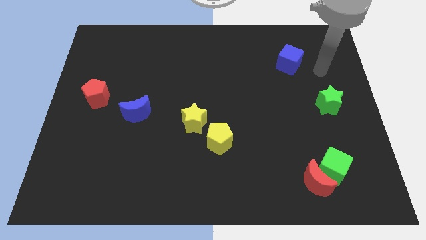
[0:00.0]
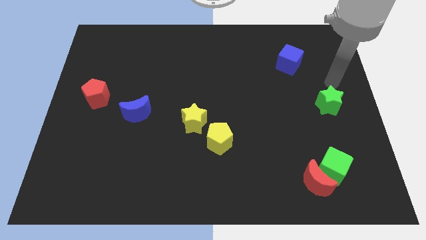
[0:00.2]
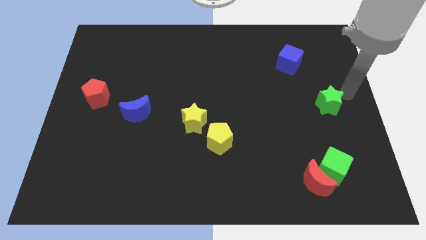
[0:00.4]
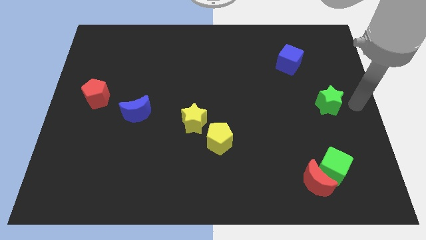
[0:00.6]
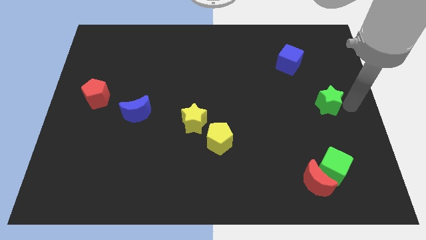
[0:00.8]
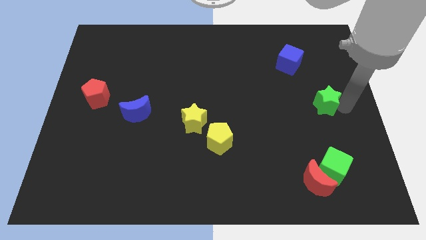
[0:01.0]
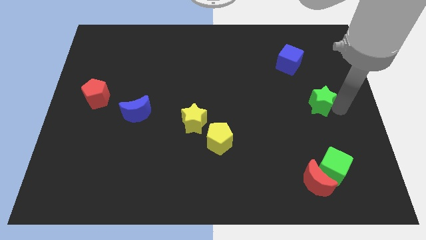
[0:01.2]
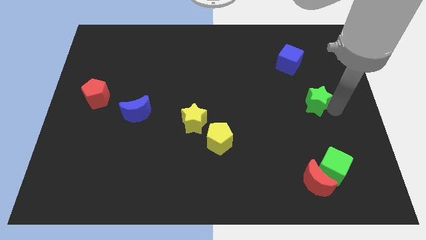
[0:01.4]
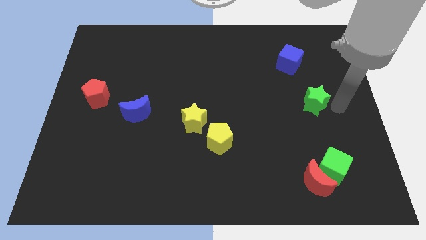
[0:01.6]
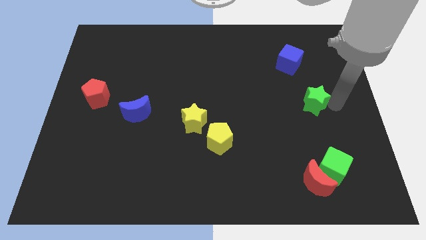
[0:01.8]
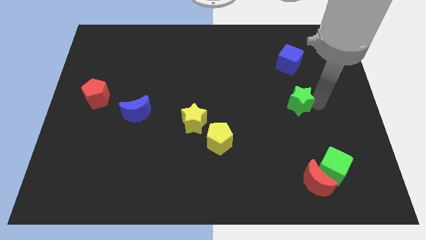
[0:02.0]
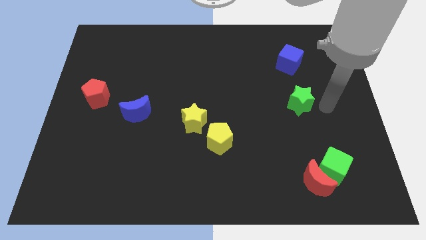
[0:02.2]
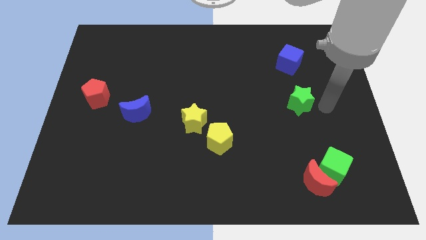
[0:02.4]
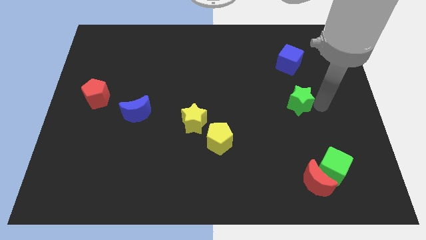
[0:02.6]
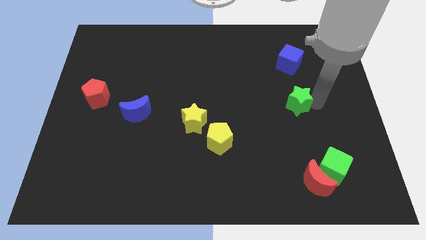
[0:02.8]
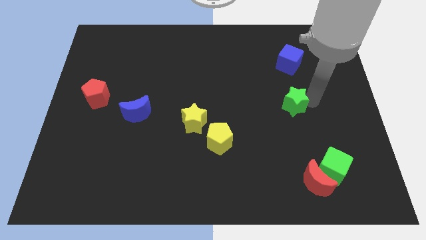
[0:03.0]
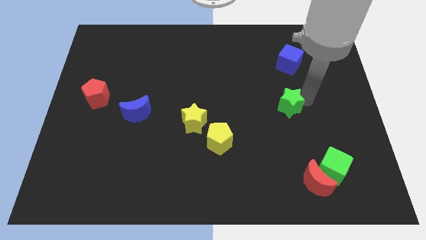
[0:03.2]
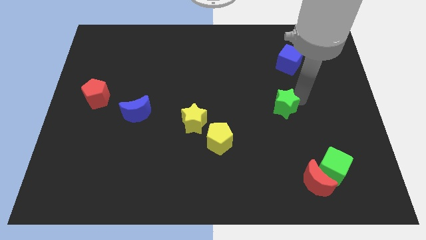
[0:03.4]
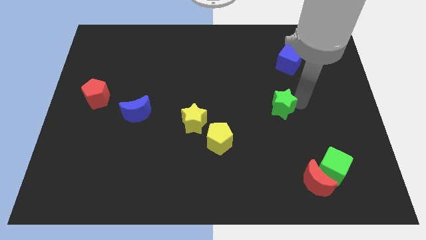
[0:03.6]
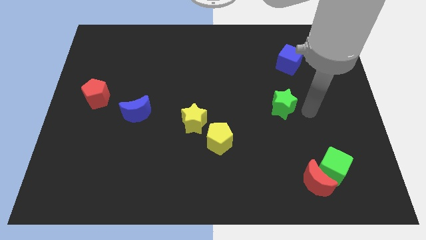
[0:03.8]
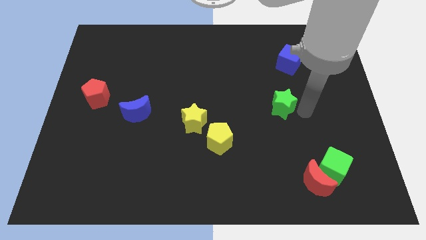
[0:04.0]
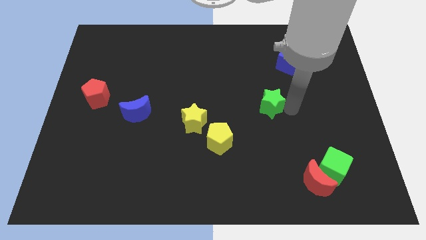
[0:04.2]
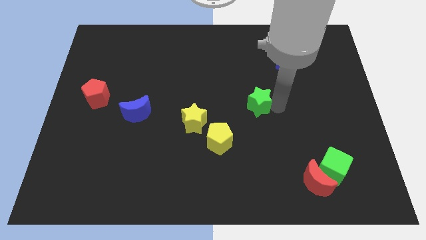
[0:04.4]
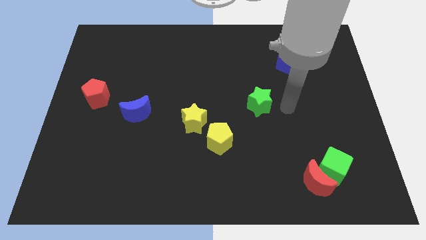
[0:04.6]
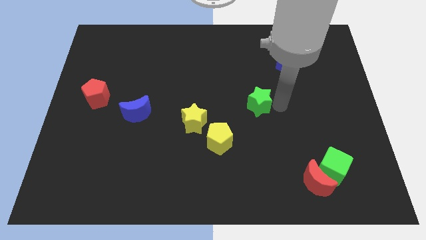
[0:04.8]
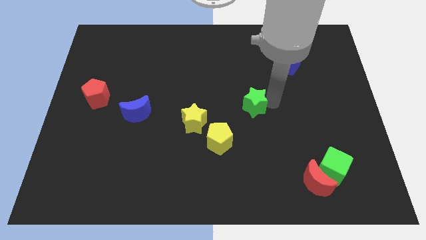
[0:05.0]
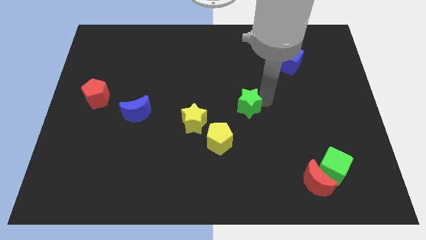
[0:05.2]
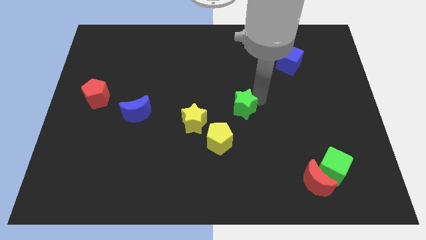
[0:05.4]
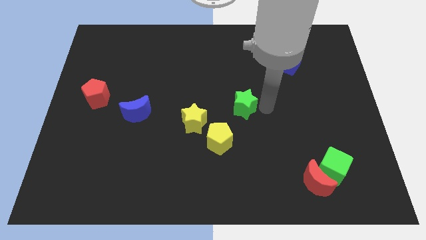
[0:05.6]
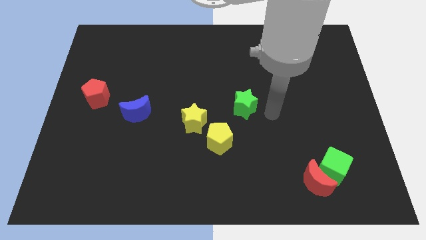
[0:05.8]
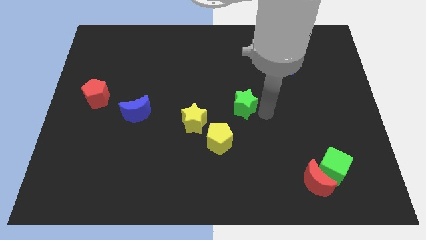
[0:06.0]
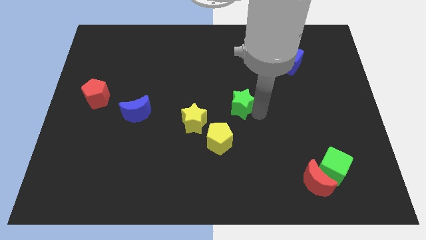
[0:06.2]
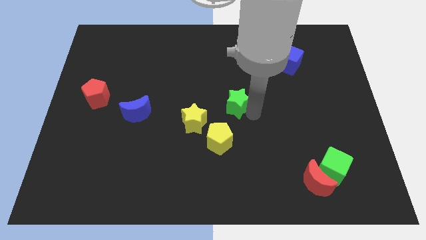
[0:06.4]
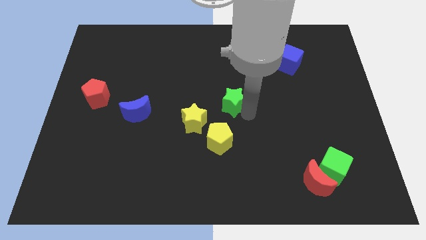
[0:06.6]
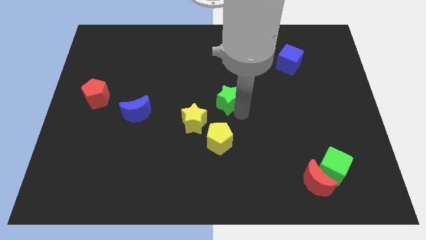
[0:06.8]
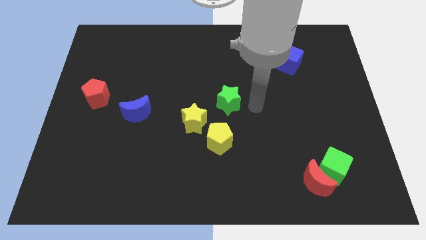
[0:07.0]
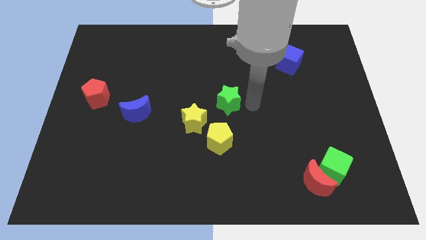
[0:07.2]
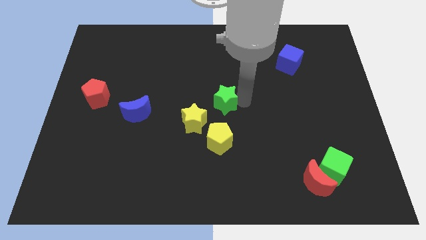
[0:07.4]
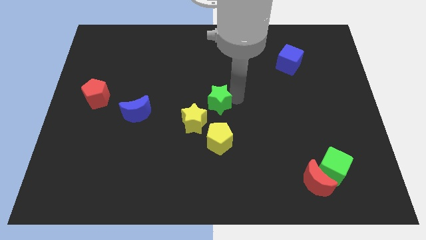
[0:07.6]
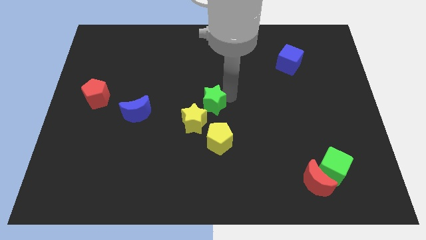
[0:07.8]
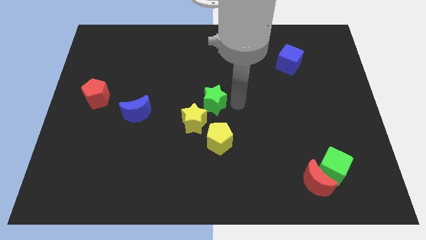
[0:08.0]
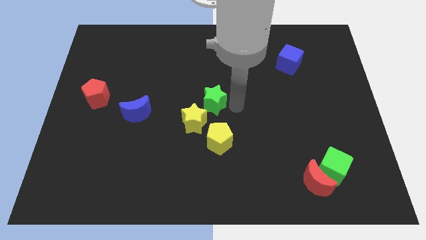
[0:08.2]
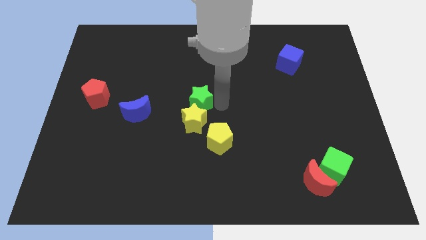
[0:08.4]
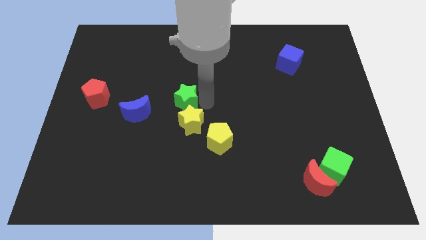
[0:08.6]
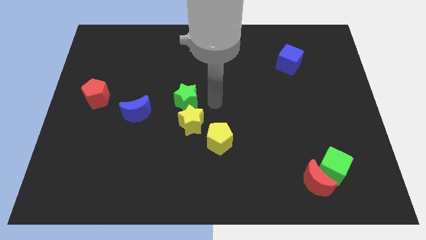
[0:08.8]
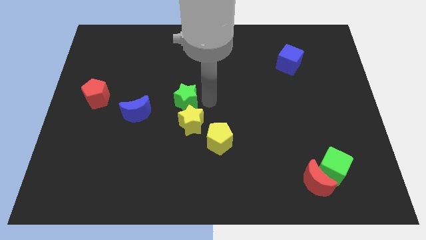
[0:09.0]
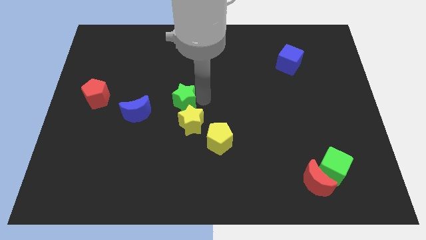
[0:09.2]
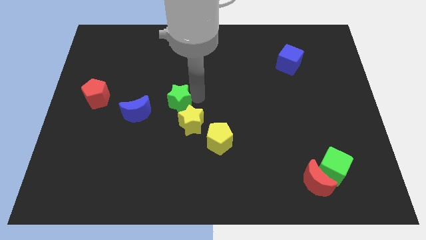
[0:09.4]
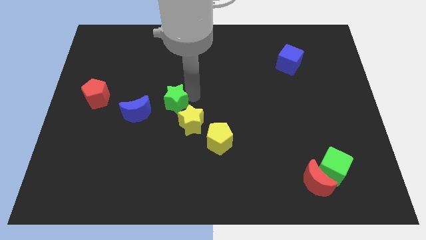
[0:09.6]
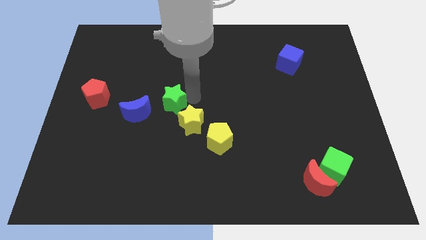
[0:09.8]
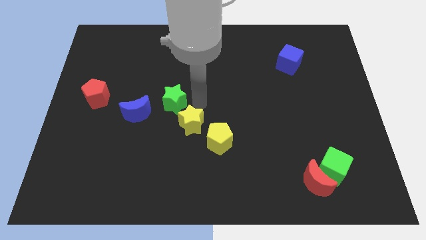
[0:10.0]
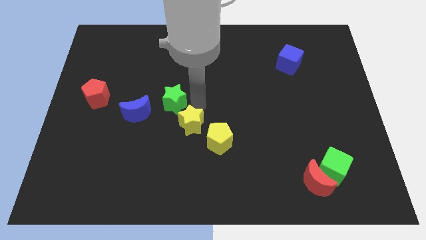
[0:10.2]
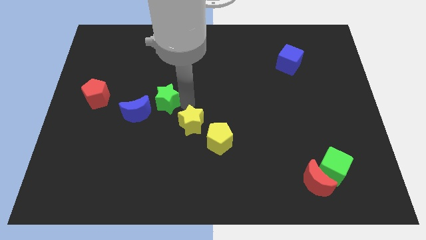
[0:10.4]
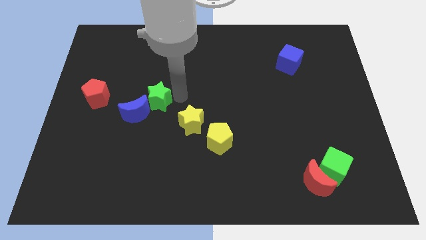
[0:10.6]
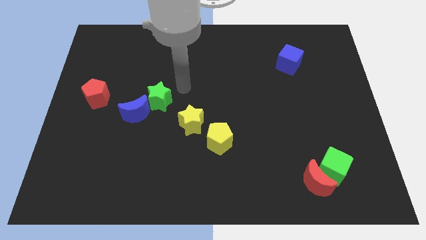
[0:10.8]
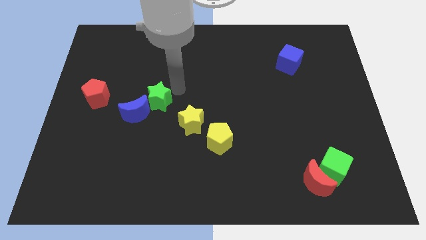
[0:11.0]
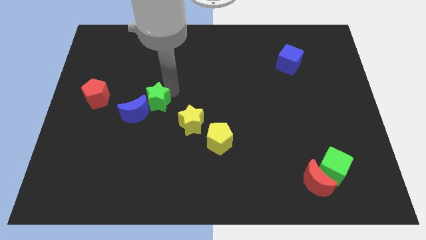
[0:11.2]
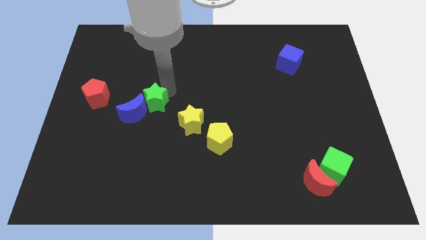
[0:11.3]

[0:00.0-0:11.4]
push the green star close to the blue moon
